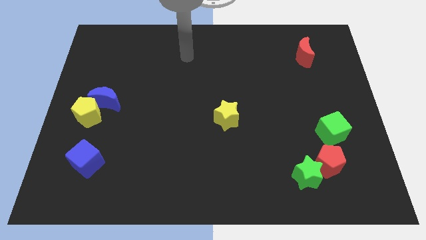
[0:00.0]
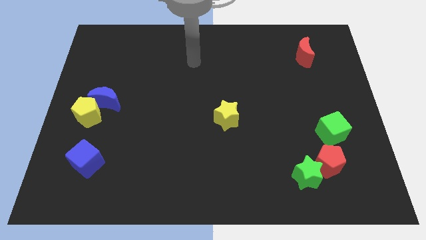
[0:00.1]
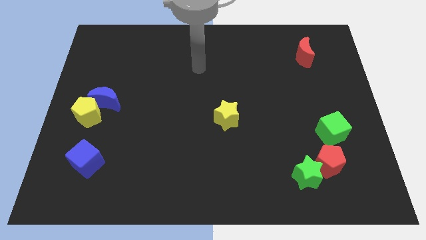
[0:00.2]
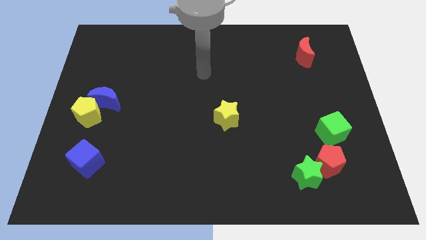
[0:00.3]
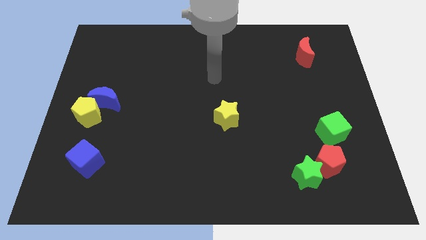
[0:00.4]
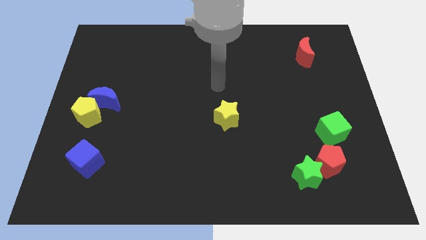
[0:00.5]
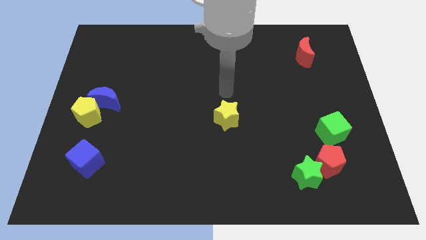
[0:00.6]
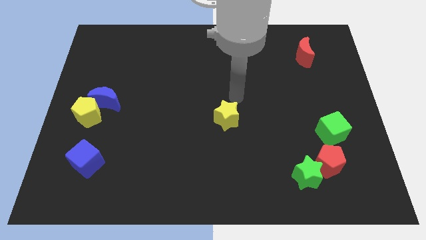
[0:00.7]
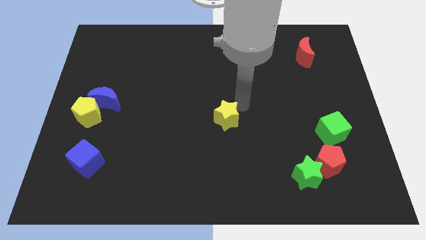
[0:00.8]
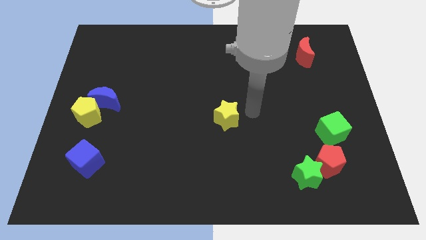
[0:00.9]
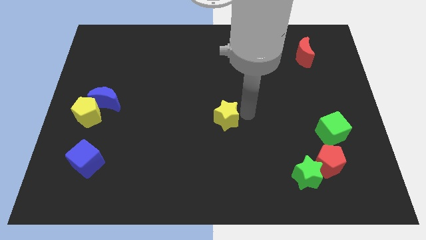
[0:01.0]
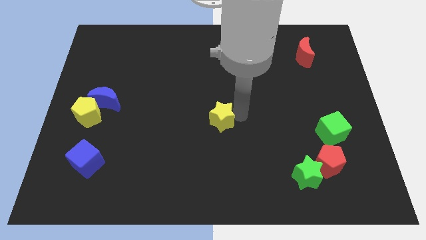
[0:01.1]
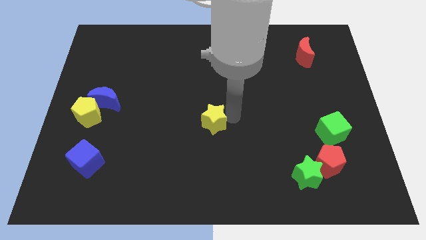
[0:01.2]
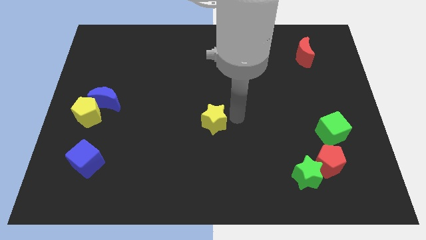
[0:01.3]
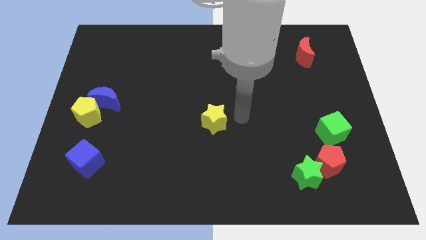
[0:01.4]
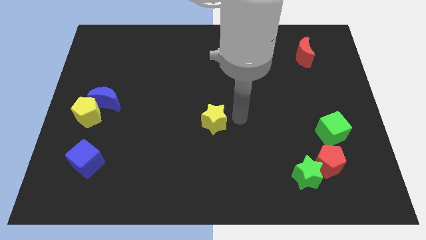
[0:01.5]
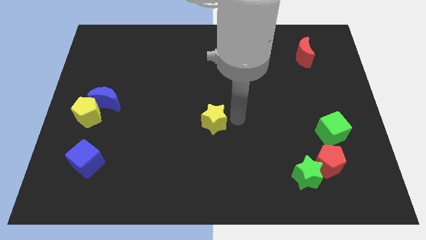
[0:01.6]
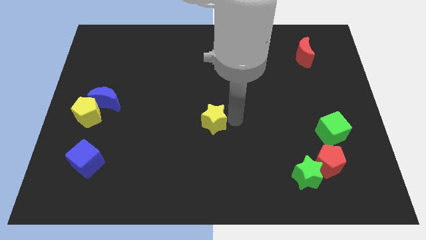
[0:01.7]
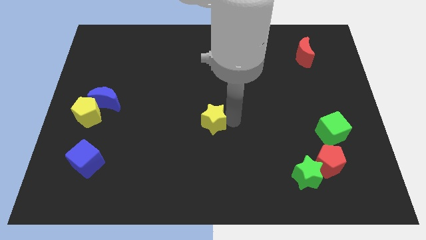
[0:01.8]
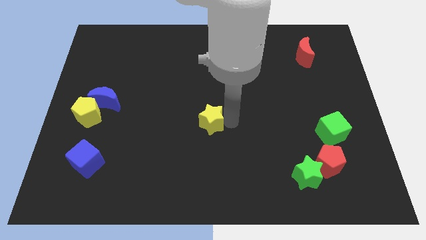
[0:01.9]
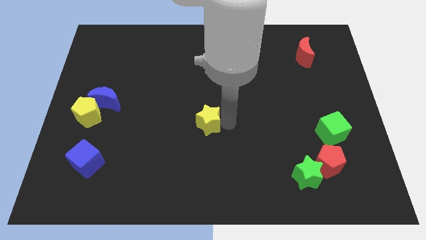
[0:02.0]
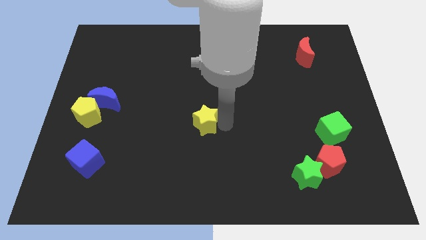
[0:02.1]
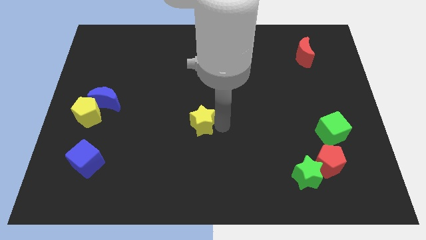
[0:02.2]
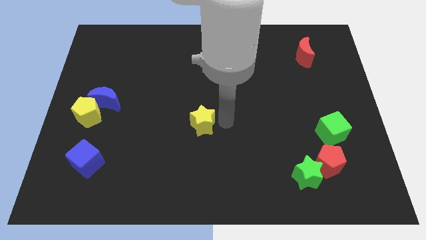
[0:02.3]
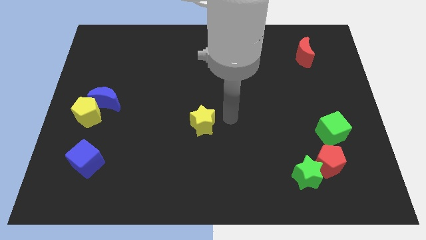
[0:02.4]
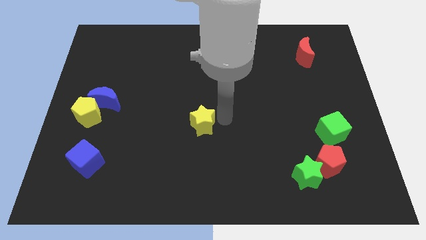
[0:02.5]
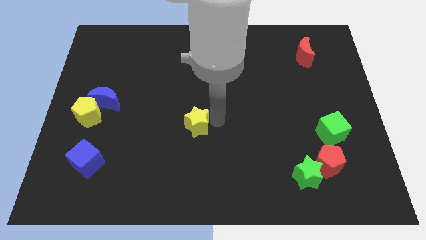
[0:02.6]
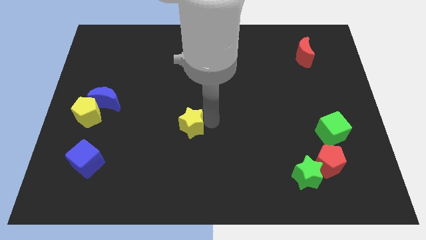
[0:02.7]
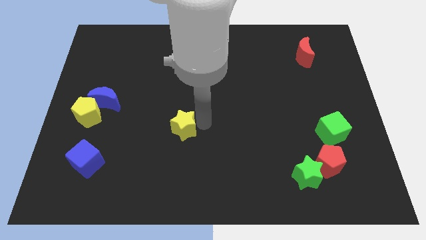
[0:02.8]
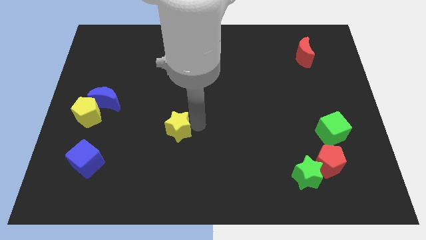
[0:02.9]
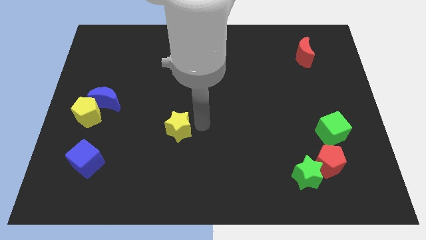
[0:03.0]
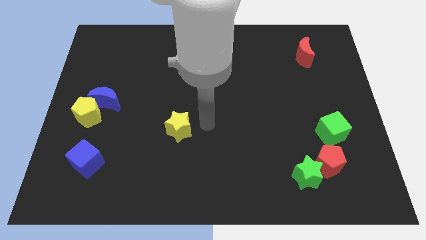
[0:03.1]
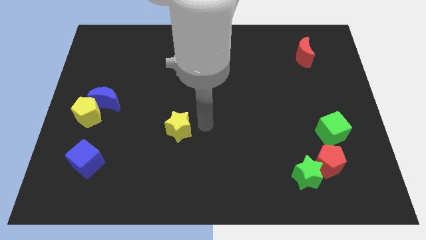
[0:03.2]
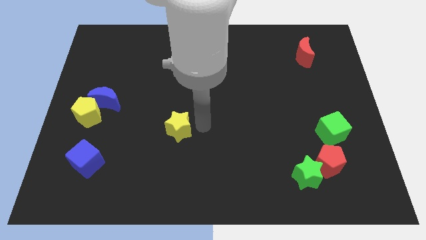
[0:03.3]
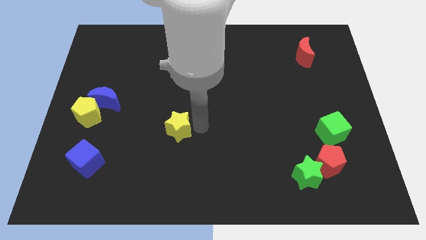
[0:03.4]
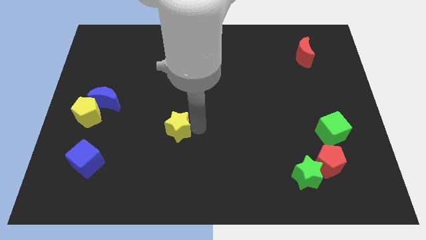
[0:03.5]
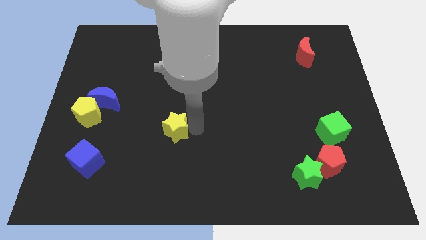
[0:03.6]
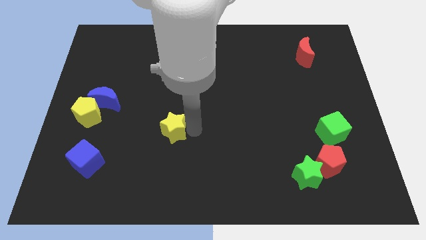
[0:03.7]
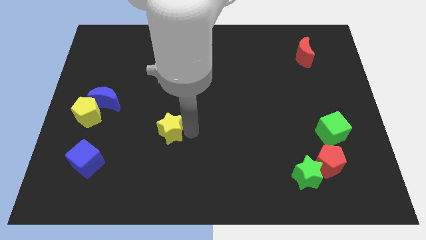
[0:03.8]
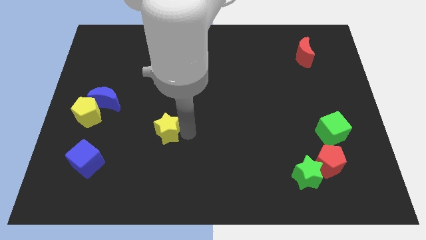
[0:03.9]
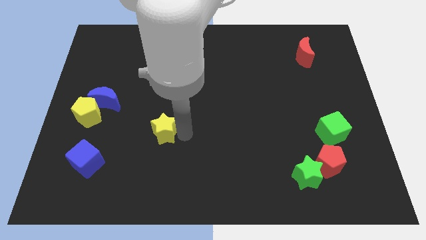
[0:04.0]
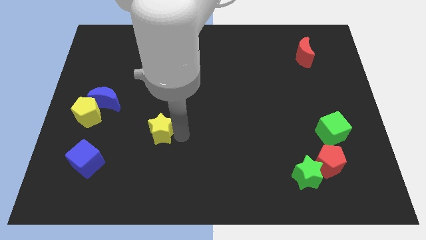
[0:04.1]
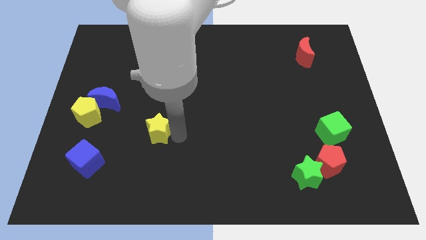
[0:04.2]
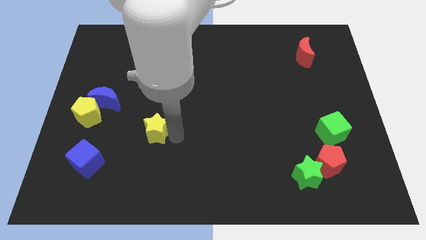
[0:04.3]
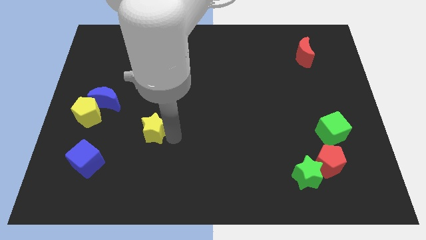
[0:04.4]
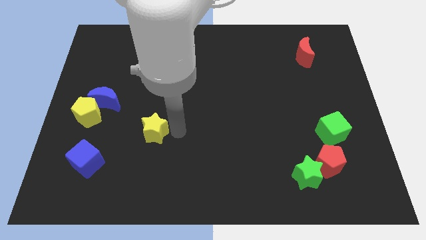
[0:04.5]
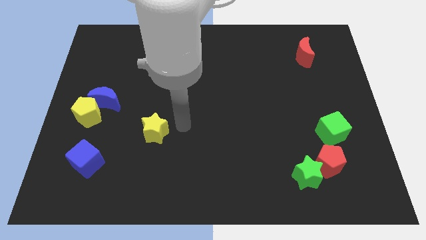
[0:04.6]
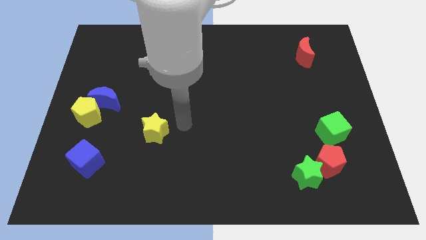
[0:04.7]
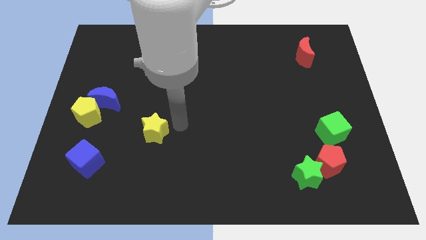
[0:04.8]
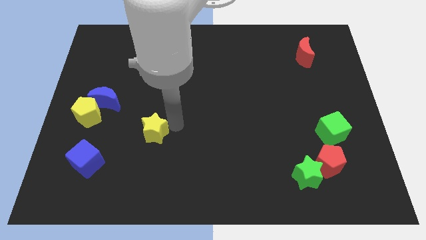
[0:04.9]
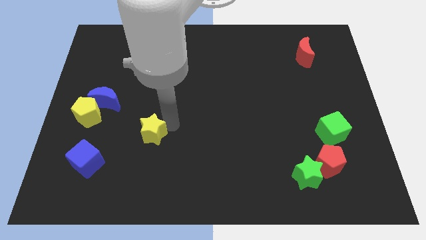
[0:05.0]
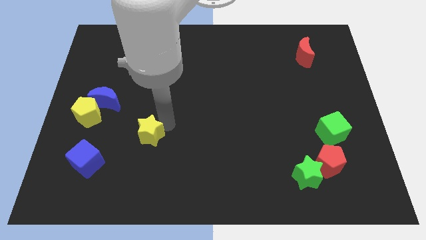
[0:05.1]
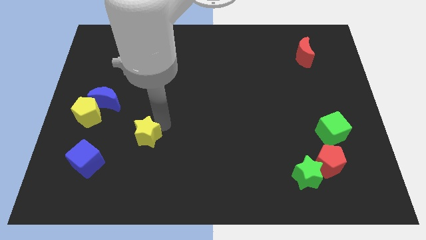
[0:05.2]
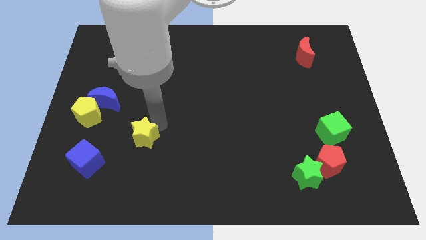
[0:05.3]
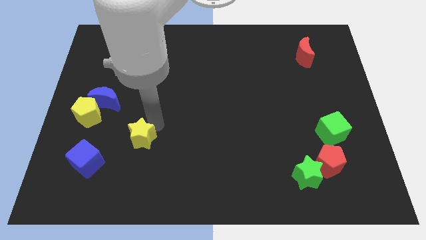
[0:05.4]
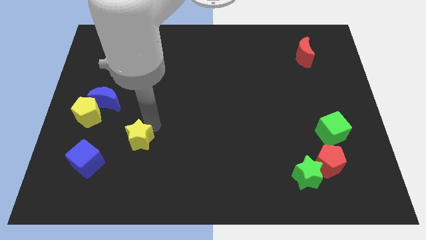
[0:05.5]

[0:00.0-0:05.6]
put the yellow star diagonally up and to the right of the blue cube

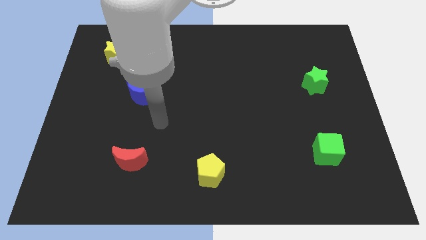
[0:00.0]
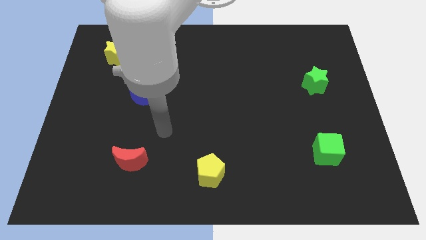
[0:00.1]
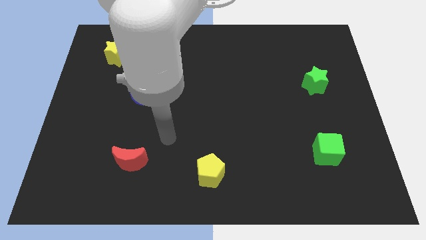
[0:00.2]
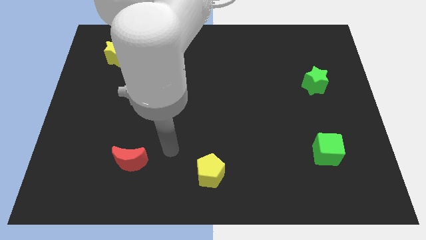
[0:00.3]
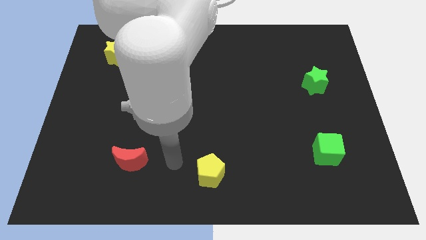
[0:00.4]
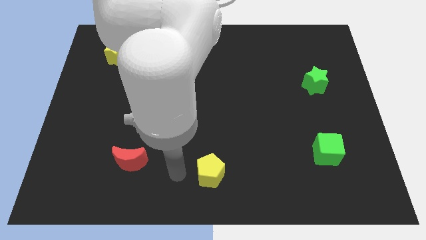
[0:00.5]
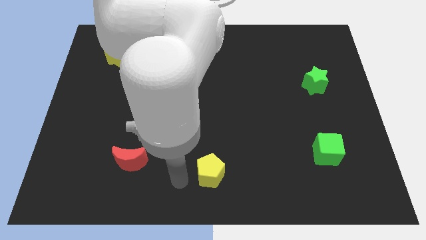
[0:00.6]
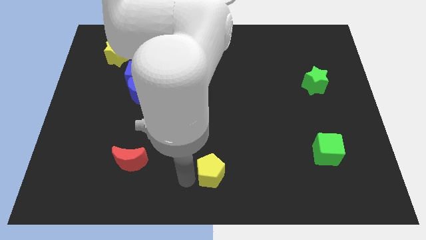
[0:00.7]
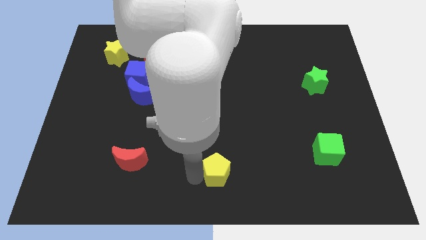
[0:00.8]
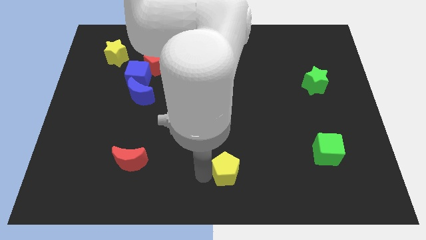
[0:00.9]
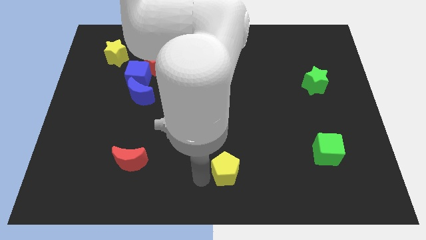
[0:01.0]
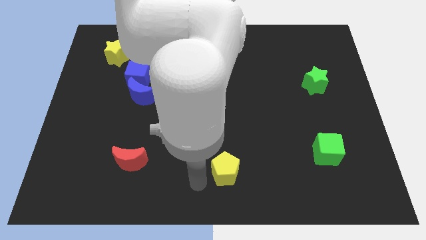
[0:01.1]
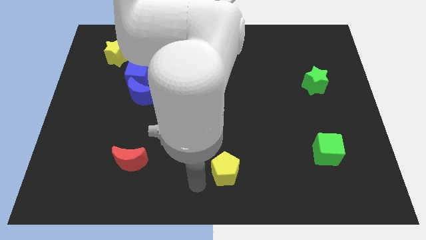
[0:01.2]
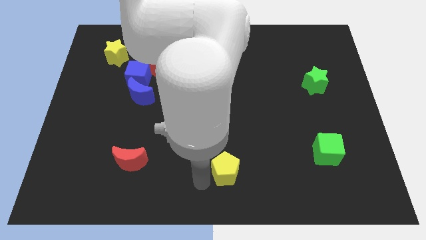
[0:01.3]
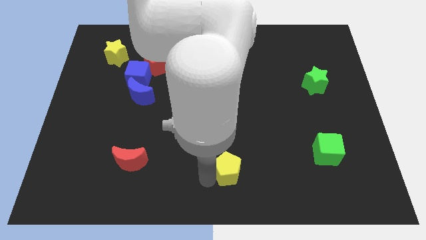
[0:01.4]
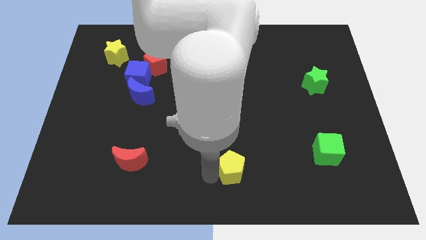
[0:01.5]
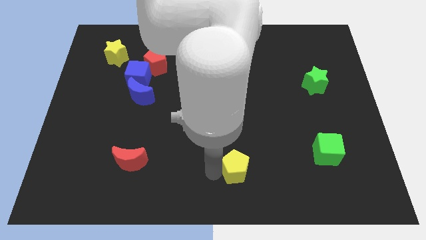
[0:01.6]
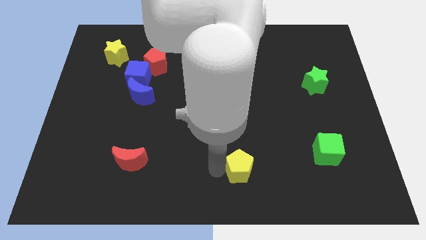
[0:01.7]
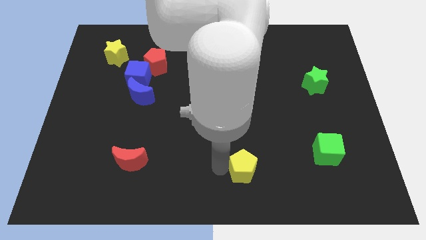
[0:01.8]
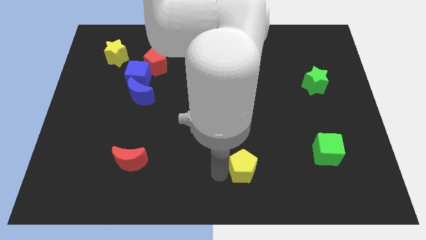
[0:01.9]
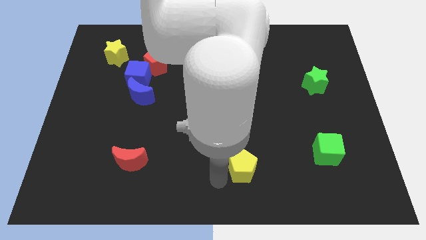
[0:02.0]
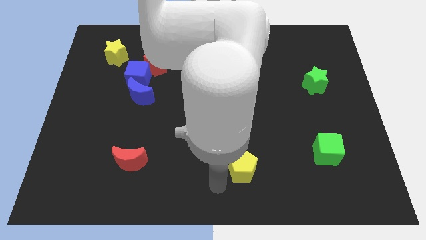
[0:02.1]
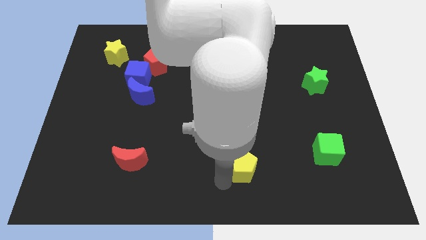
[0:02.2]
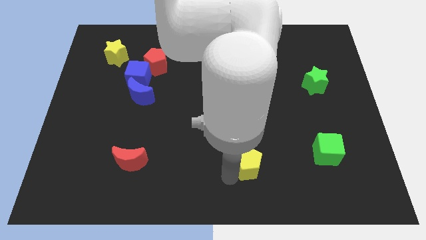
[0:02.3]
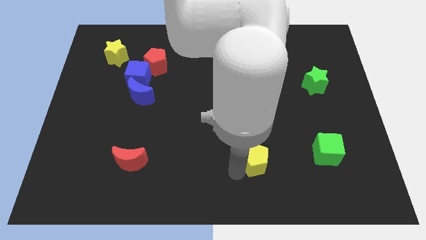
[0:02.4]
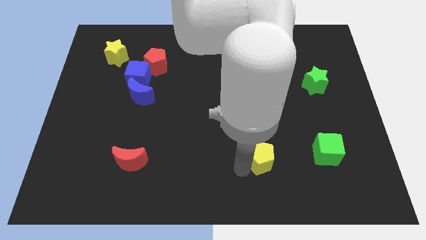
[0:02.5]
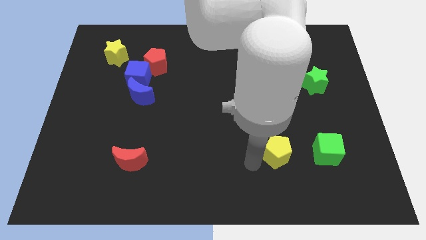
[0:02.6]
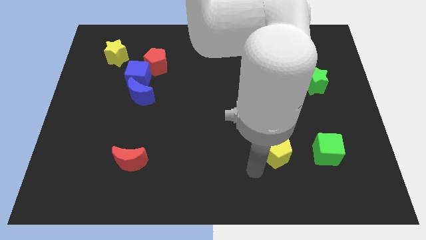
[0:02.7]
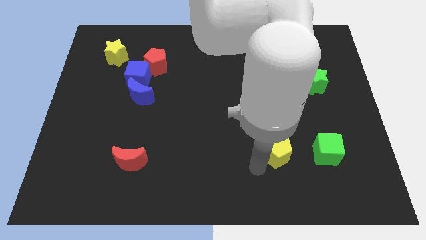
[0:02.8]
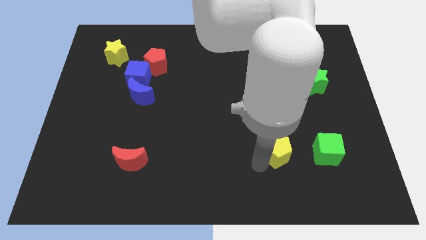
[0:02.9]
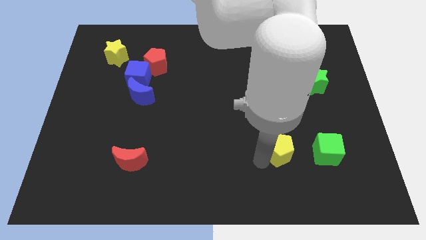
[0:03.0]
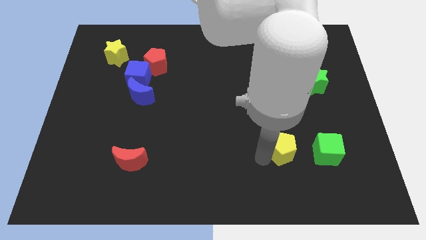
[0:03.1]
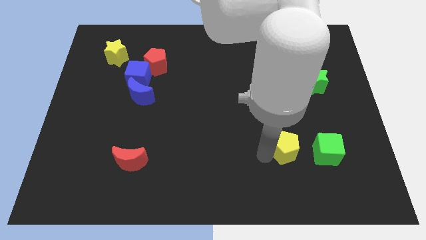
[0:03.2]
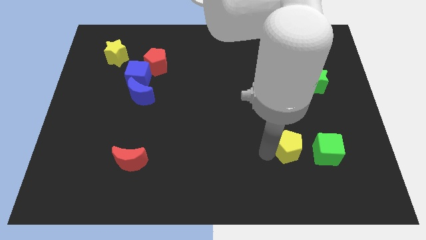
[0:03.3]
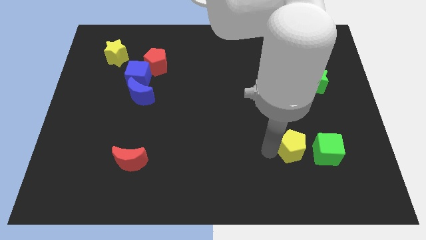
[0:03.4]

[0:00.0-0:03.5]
slide the yellow pentagon diagonally up and to the left of the green cube
